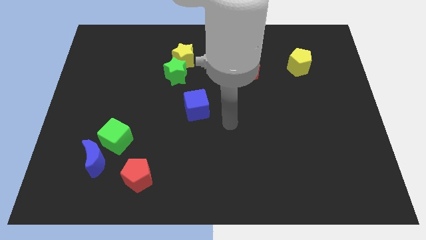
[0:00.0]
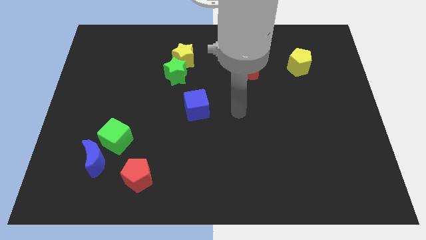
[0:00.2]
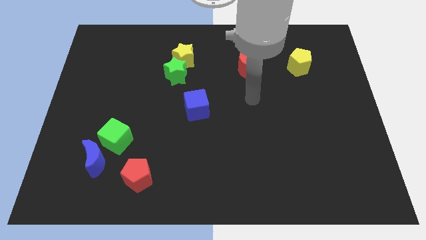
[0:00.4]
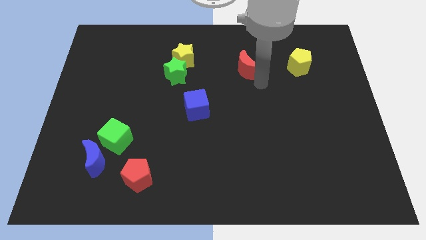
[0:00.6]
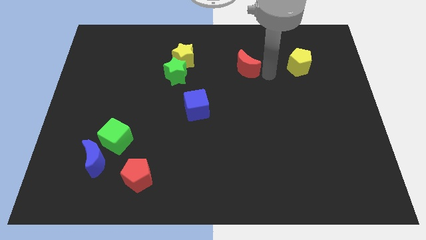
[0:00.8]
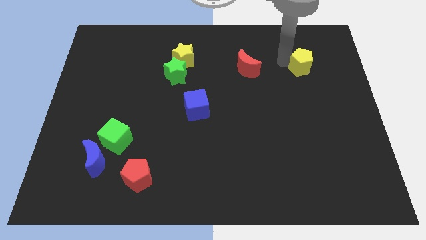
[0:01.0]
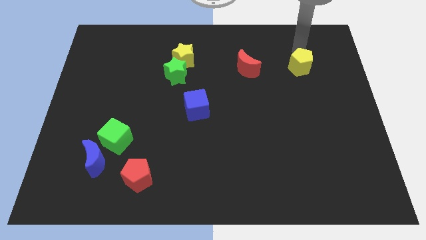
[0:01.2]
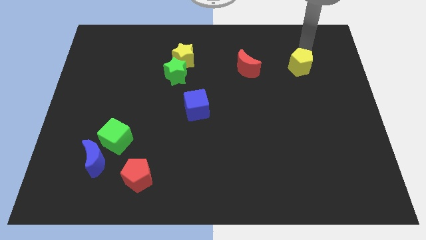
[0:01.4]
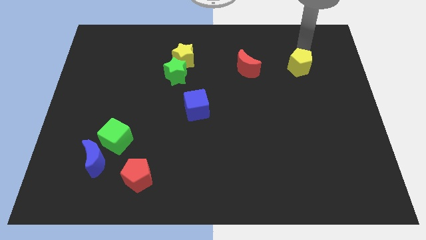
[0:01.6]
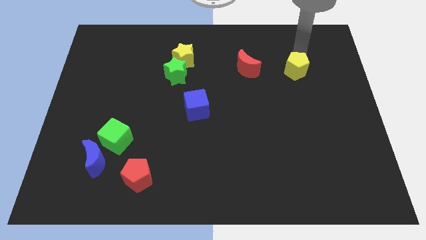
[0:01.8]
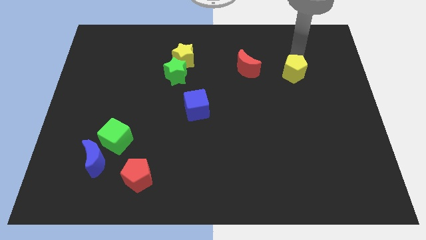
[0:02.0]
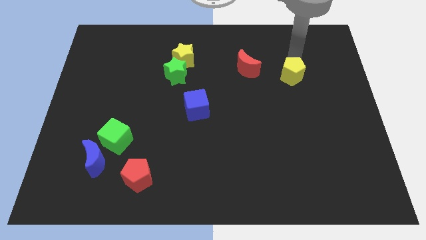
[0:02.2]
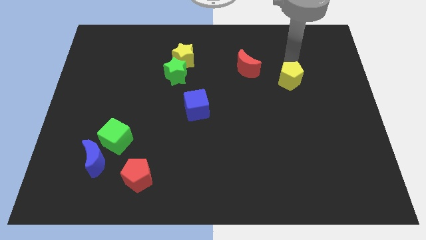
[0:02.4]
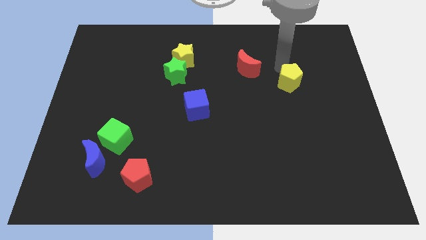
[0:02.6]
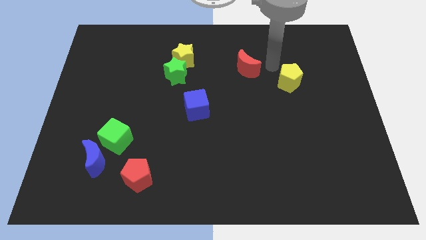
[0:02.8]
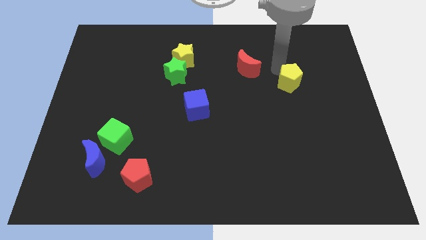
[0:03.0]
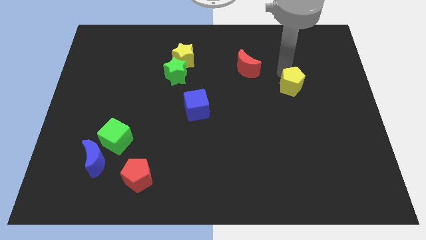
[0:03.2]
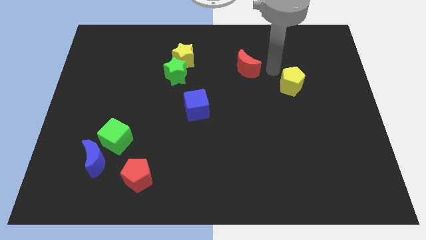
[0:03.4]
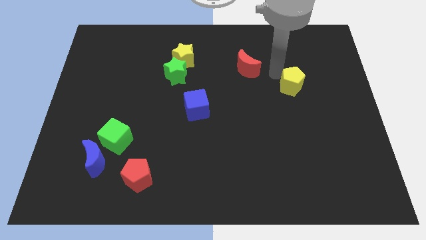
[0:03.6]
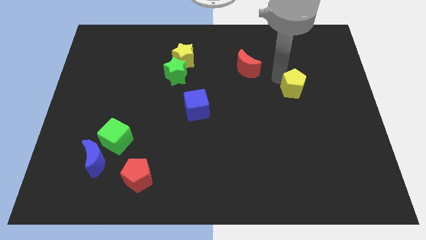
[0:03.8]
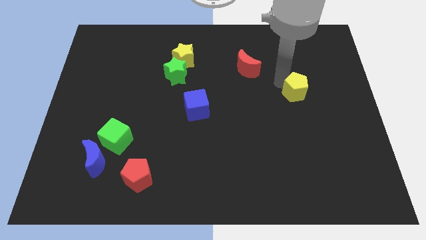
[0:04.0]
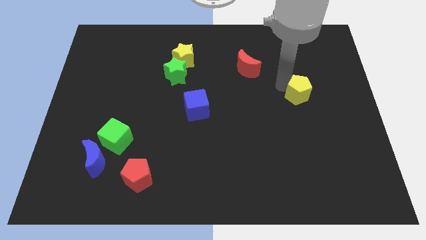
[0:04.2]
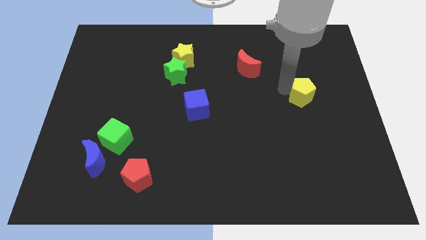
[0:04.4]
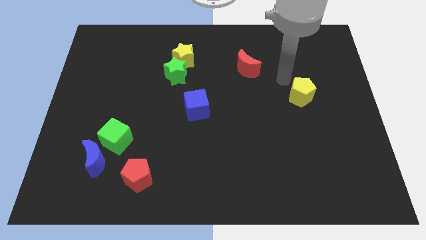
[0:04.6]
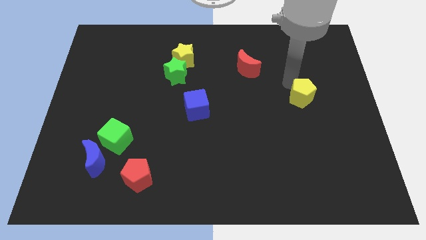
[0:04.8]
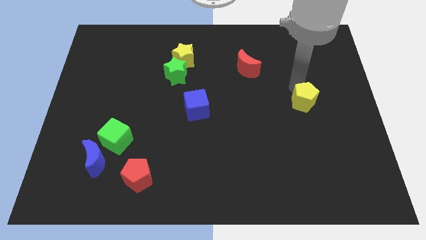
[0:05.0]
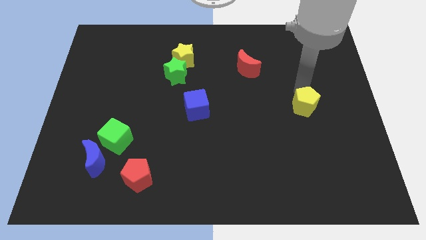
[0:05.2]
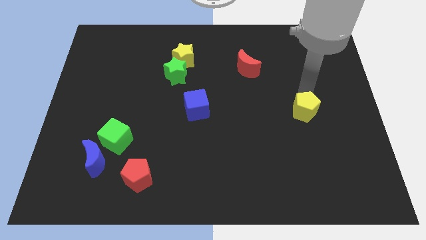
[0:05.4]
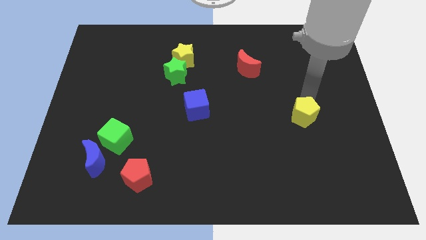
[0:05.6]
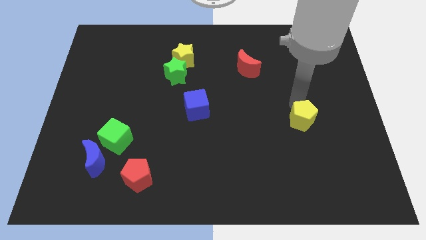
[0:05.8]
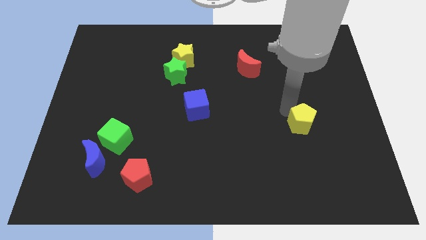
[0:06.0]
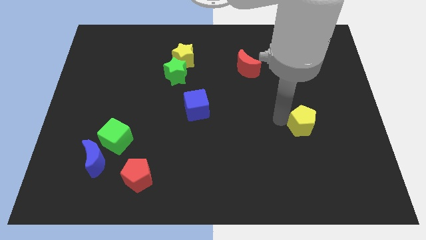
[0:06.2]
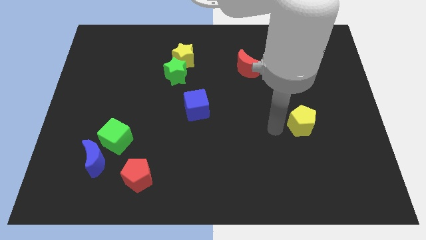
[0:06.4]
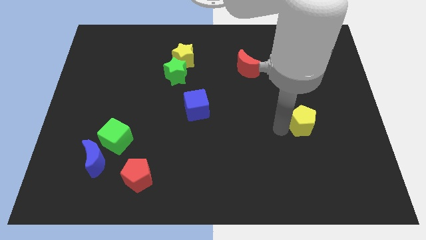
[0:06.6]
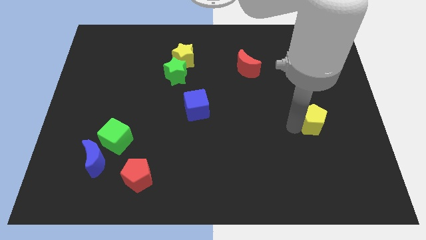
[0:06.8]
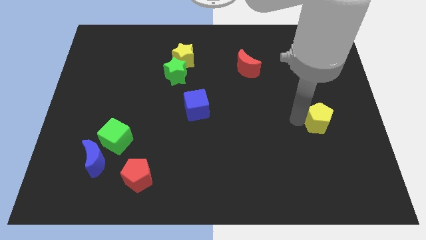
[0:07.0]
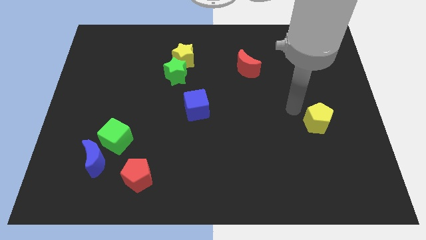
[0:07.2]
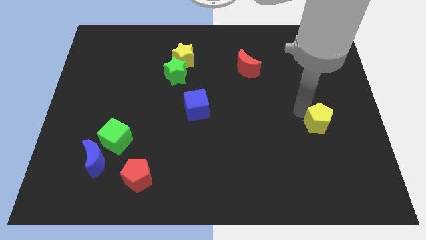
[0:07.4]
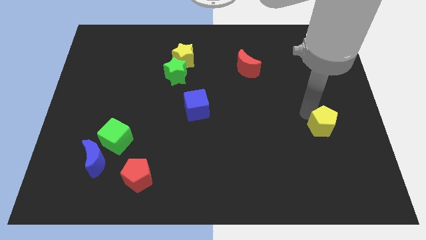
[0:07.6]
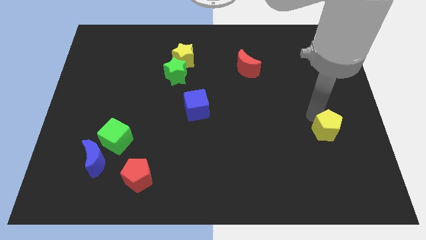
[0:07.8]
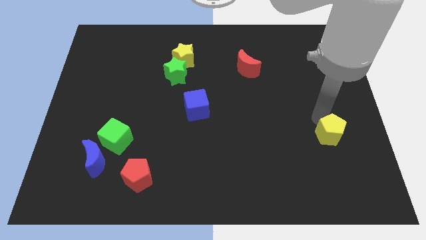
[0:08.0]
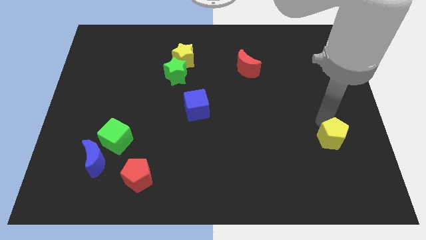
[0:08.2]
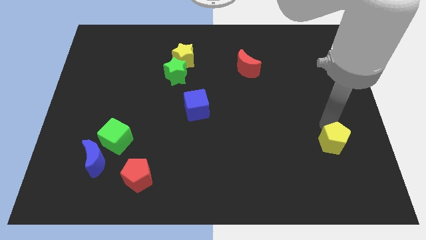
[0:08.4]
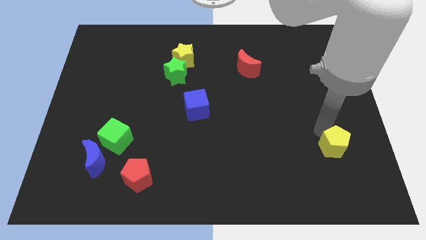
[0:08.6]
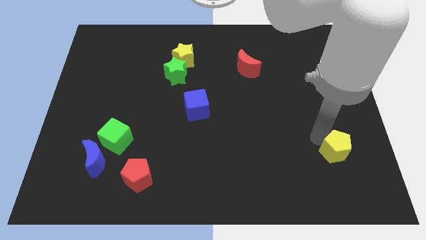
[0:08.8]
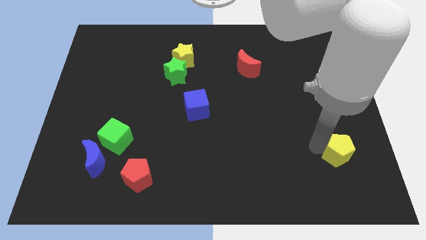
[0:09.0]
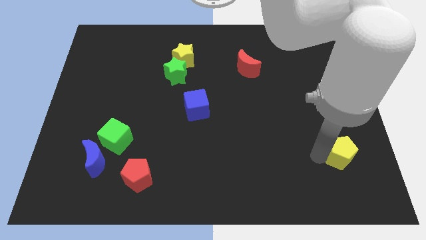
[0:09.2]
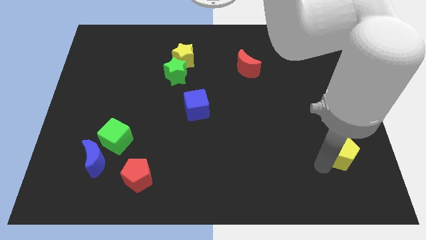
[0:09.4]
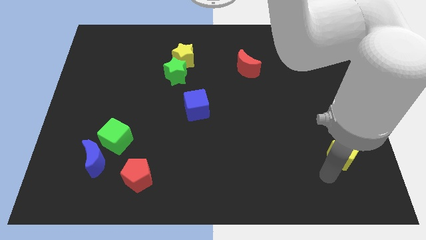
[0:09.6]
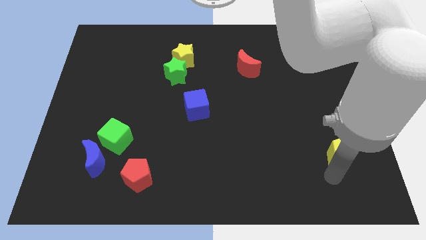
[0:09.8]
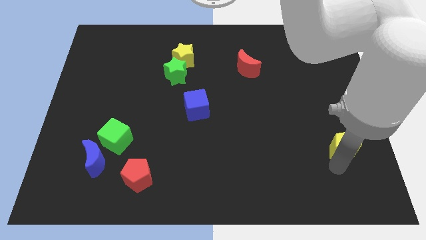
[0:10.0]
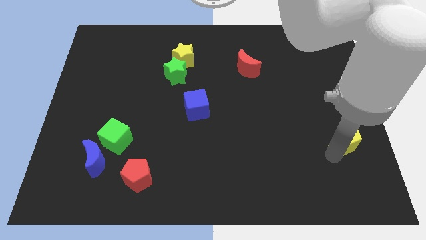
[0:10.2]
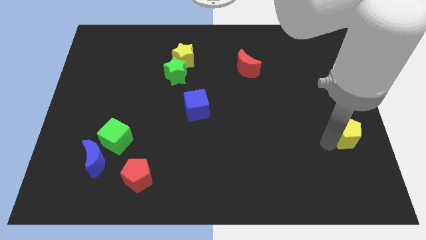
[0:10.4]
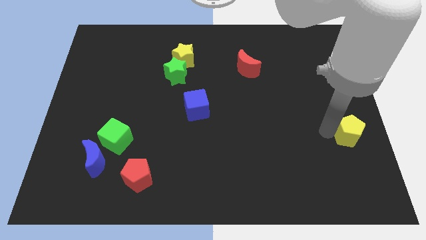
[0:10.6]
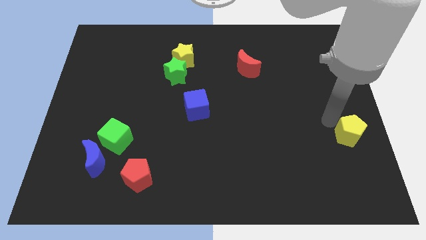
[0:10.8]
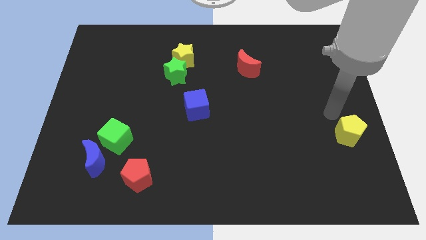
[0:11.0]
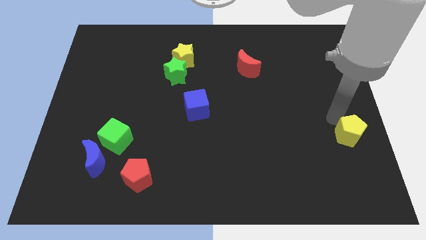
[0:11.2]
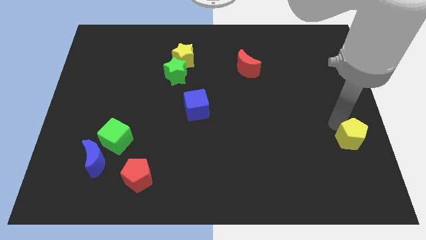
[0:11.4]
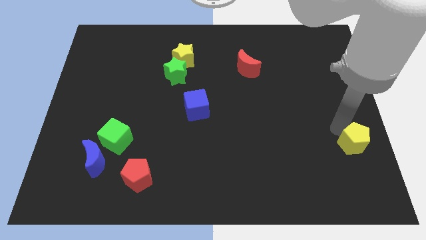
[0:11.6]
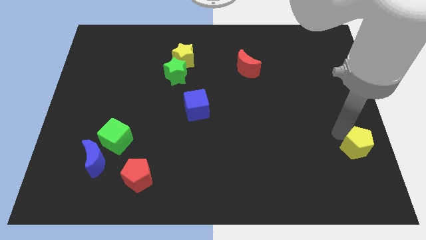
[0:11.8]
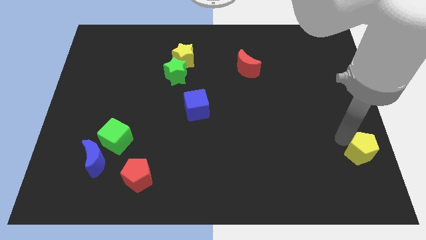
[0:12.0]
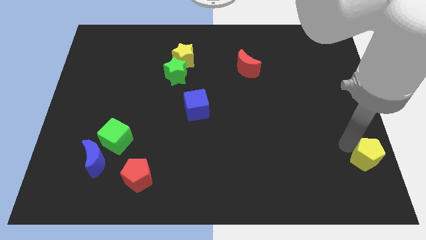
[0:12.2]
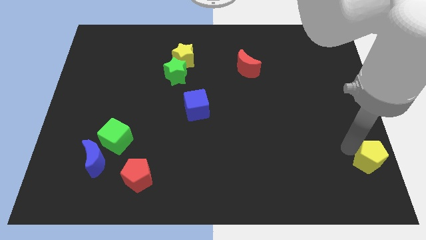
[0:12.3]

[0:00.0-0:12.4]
move the yellow pentagon to the bottom right
